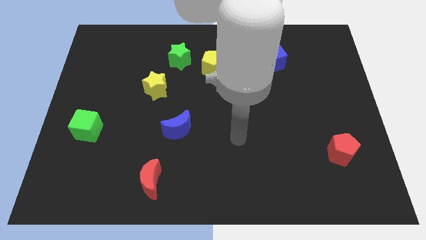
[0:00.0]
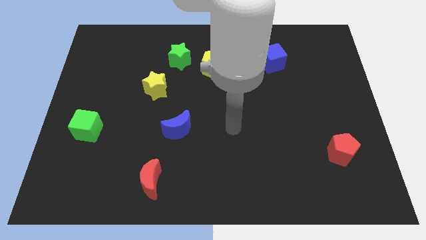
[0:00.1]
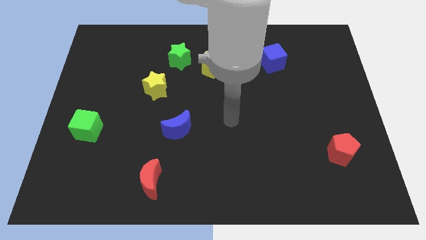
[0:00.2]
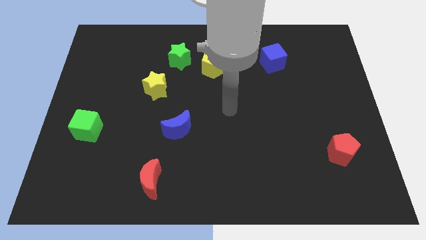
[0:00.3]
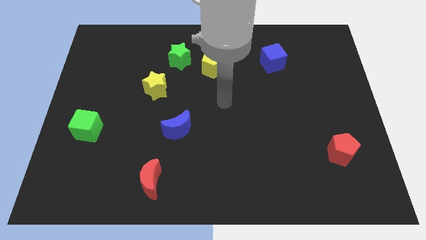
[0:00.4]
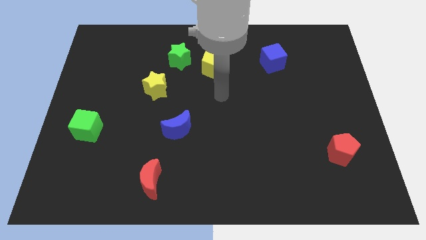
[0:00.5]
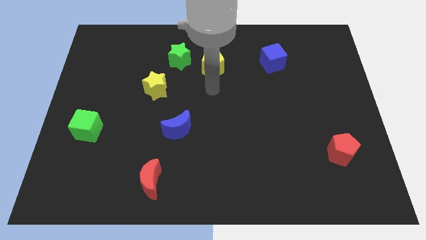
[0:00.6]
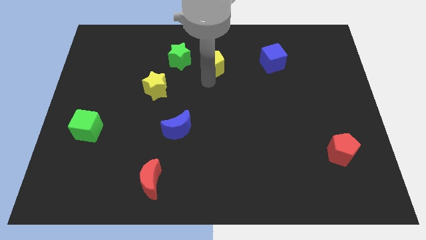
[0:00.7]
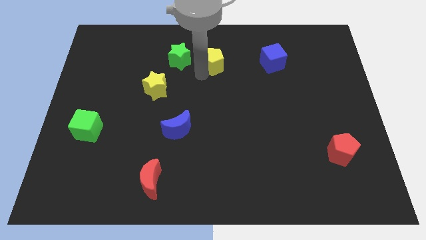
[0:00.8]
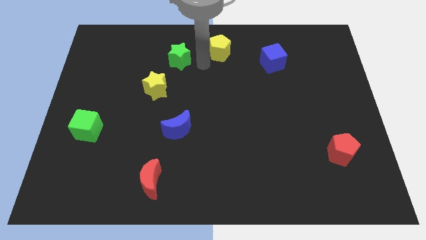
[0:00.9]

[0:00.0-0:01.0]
separate the green star from the yellow pentagon

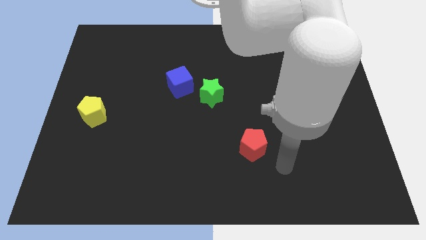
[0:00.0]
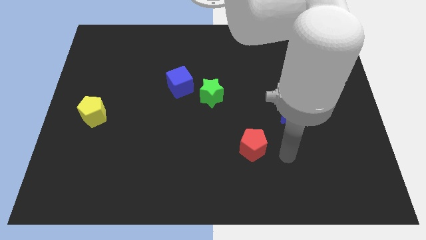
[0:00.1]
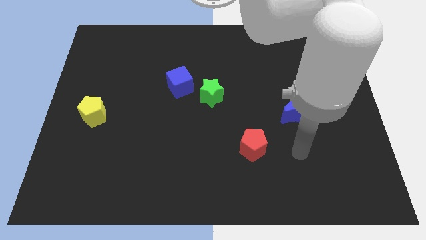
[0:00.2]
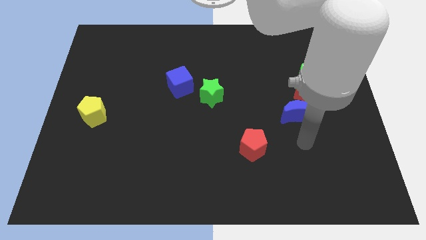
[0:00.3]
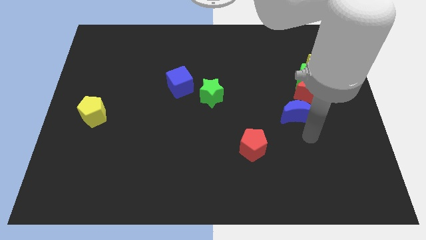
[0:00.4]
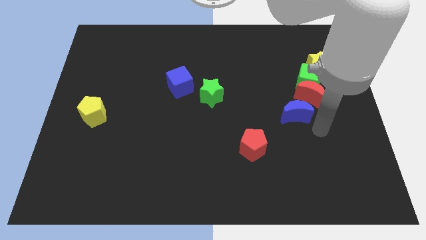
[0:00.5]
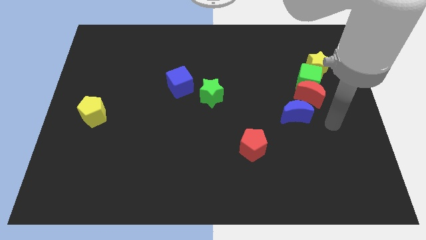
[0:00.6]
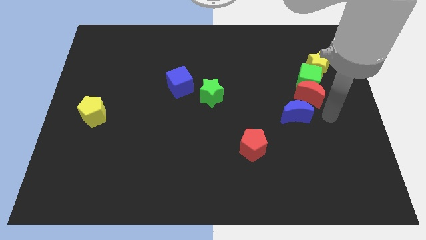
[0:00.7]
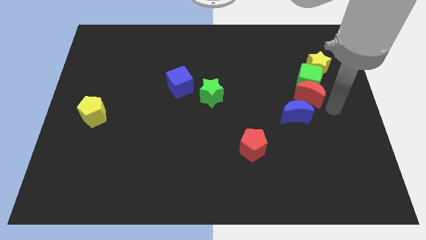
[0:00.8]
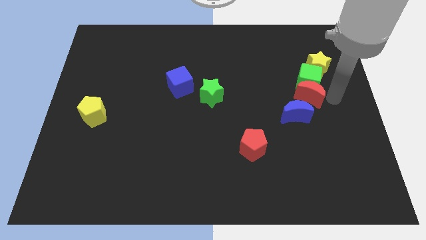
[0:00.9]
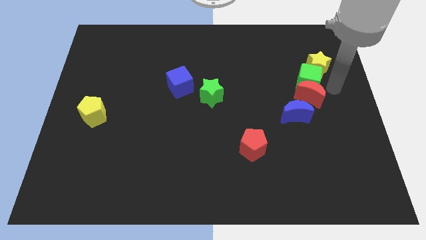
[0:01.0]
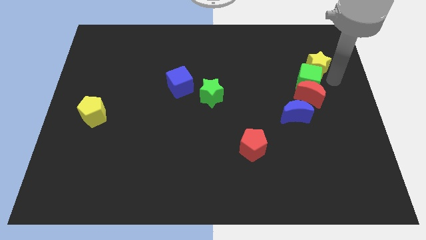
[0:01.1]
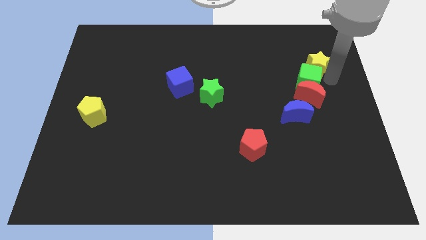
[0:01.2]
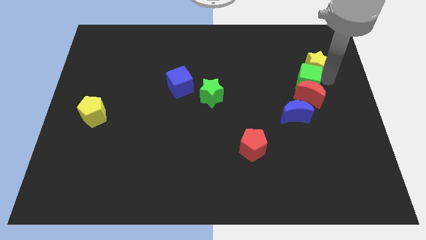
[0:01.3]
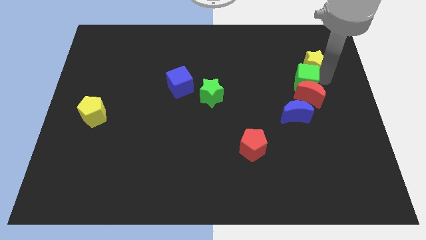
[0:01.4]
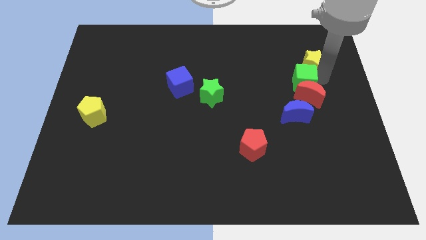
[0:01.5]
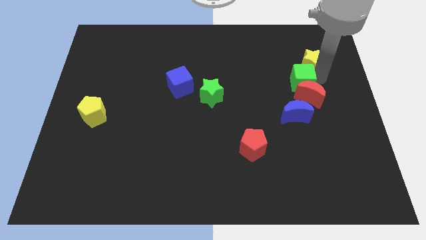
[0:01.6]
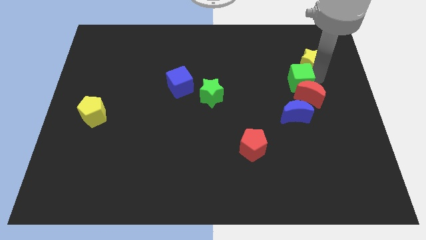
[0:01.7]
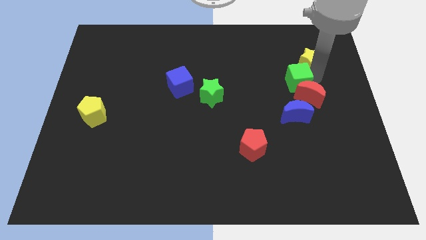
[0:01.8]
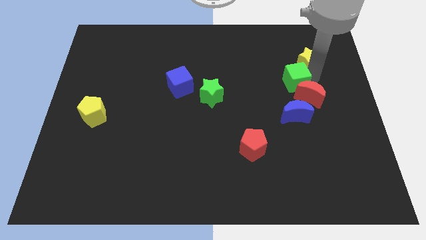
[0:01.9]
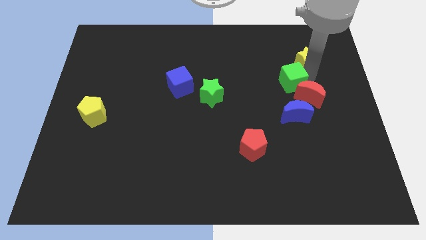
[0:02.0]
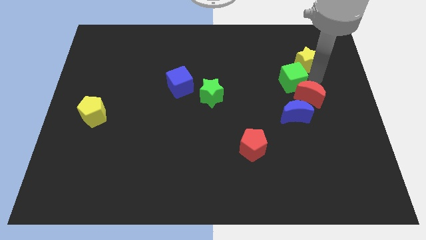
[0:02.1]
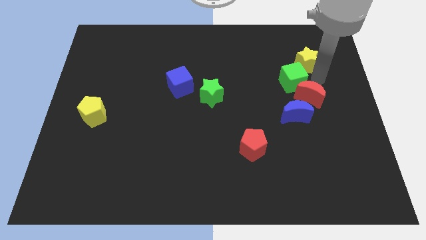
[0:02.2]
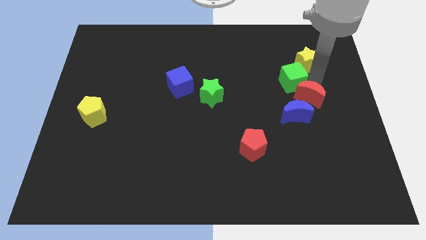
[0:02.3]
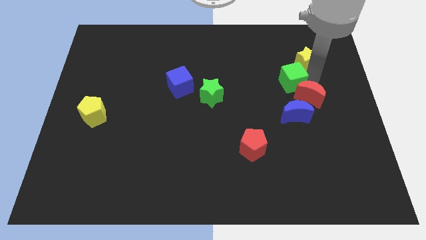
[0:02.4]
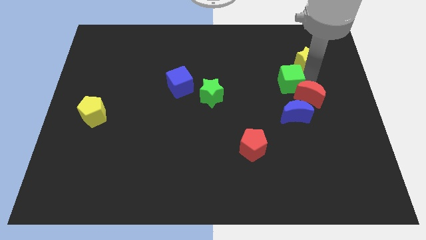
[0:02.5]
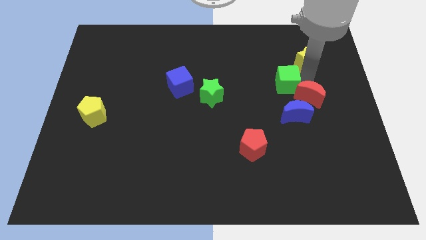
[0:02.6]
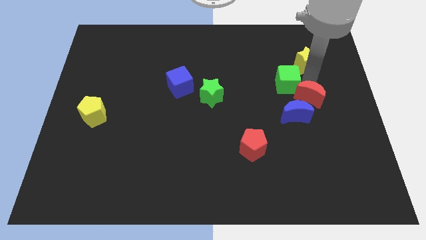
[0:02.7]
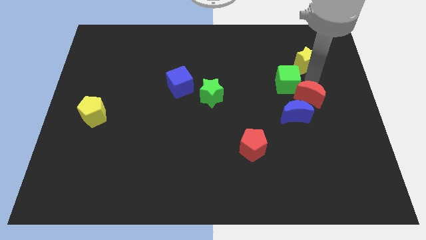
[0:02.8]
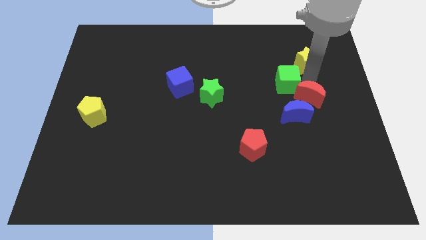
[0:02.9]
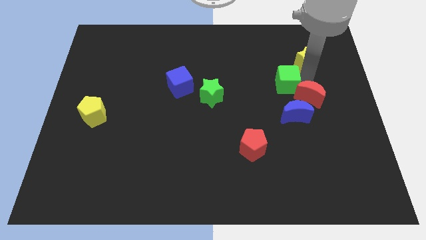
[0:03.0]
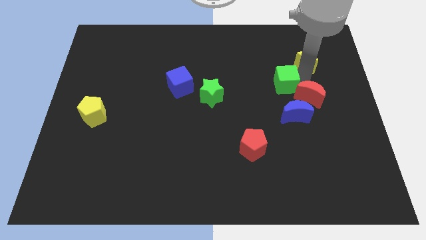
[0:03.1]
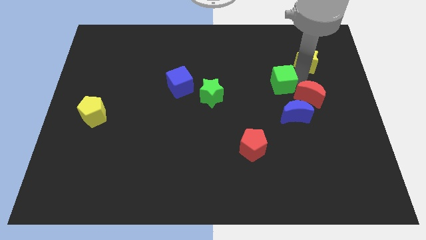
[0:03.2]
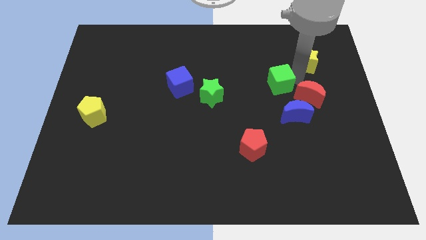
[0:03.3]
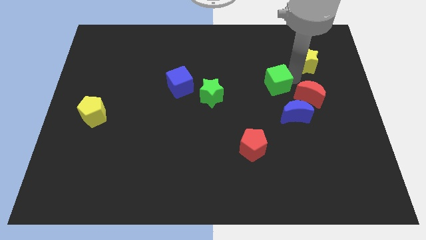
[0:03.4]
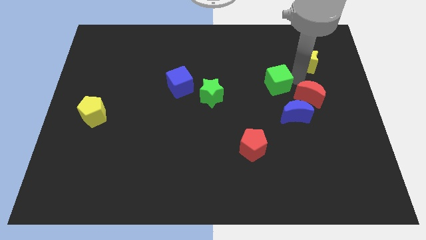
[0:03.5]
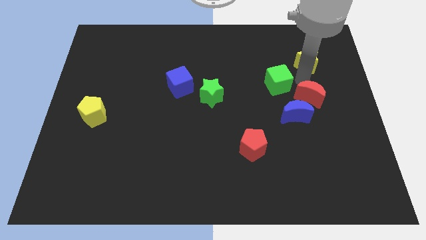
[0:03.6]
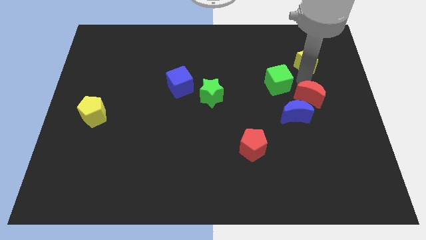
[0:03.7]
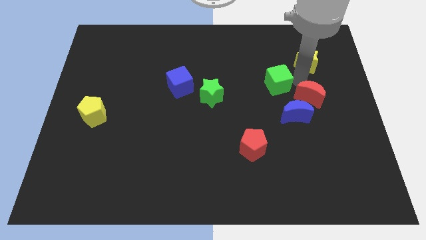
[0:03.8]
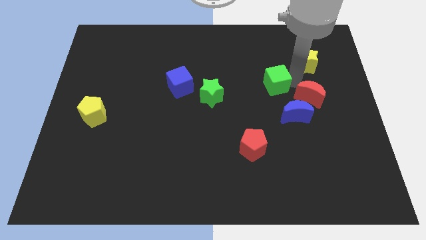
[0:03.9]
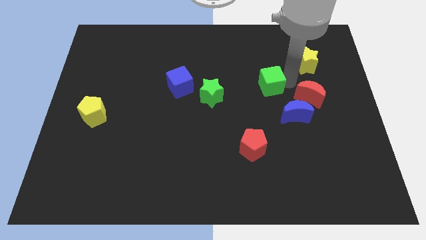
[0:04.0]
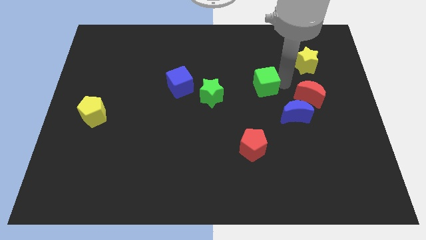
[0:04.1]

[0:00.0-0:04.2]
pull the green cube apart from the red moon and yellow star

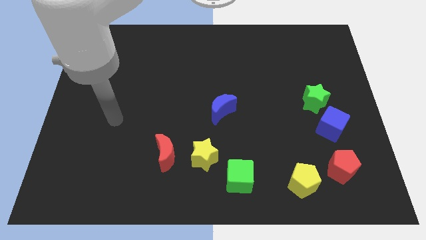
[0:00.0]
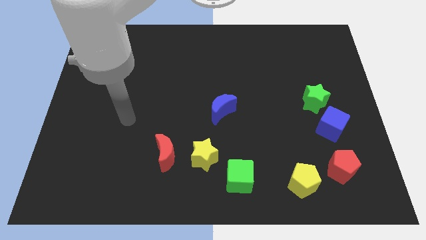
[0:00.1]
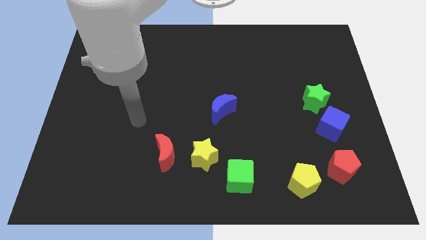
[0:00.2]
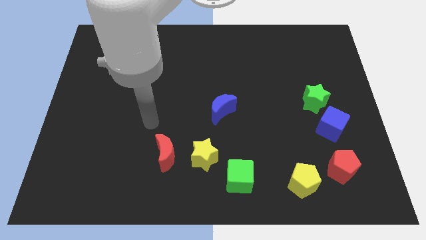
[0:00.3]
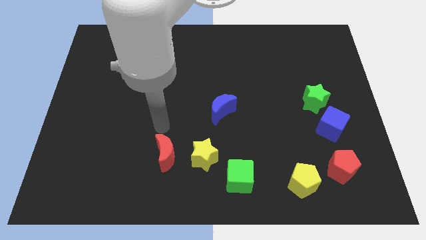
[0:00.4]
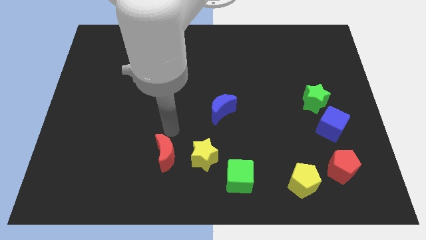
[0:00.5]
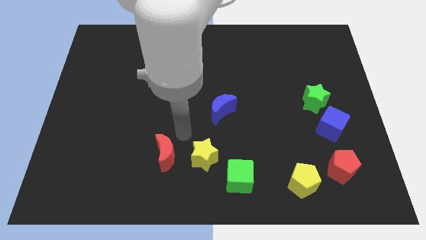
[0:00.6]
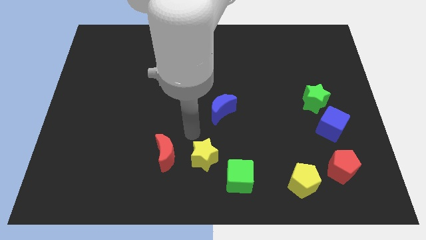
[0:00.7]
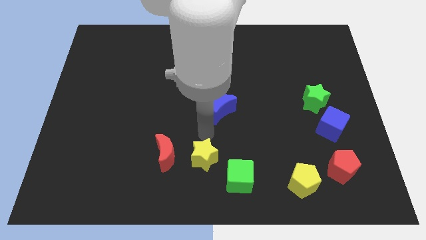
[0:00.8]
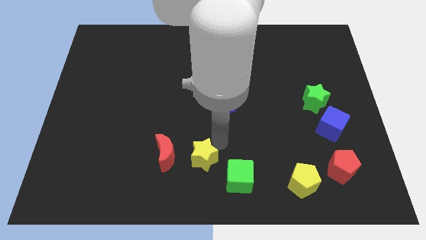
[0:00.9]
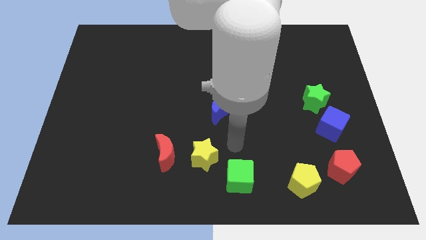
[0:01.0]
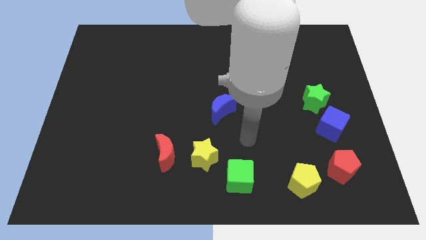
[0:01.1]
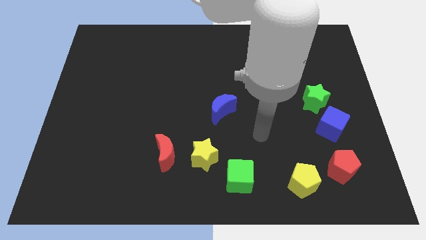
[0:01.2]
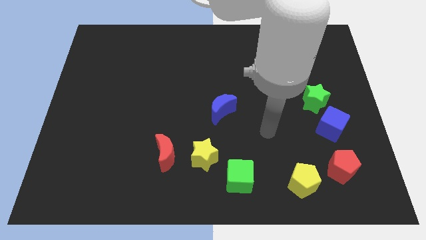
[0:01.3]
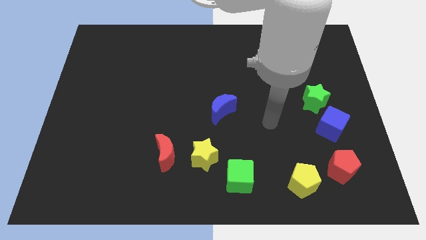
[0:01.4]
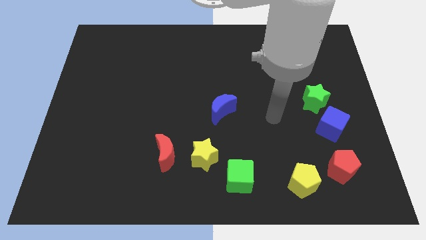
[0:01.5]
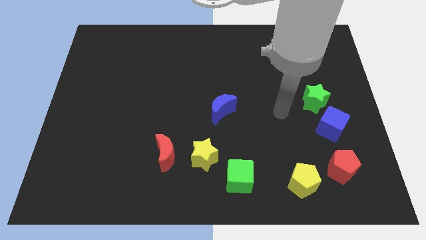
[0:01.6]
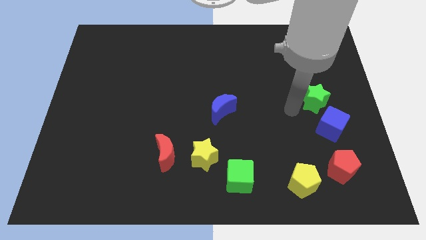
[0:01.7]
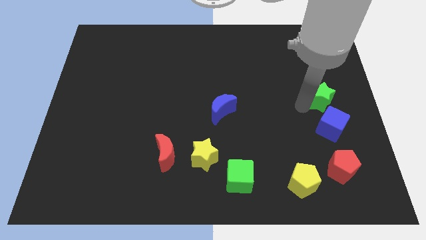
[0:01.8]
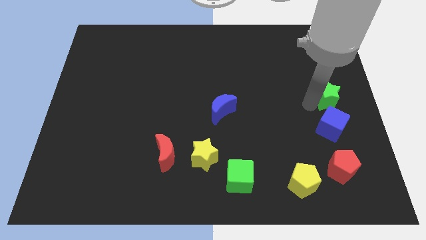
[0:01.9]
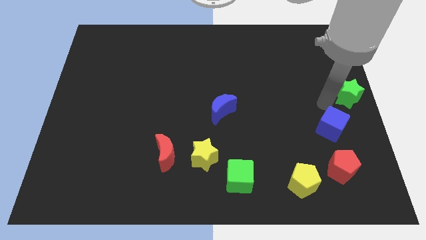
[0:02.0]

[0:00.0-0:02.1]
pull the blue cube apart from the green star

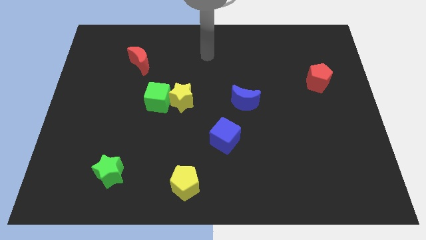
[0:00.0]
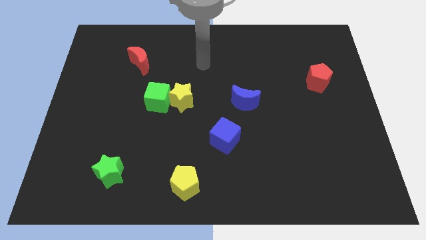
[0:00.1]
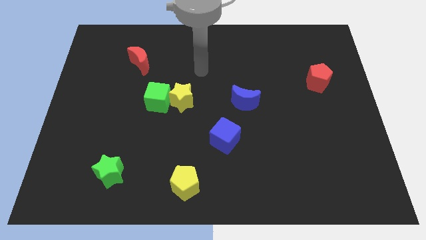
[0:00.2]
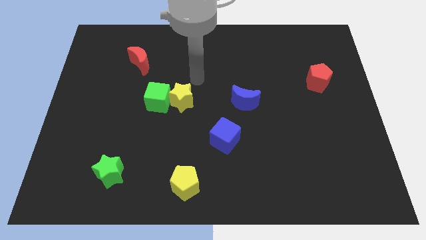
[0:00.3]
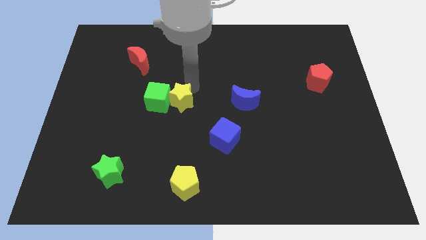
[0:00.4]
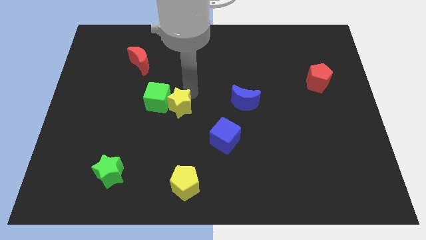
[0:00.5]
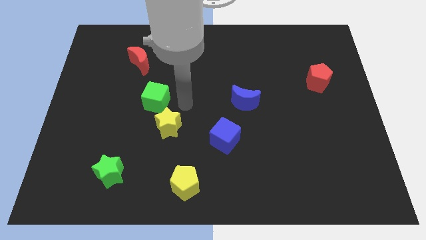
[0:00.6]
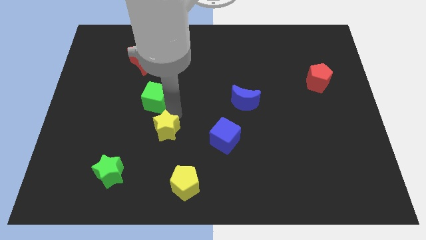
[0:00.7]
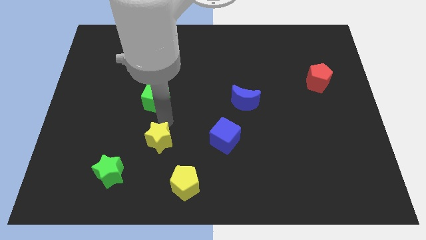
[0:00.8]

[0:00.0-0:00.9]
separate the green cube from the yellow star

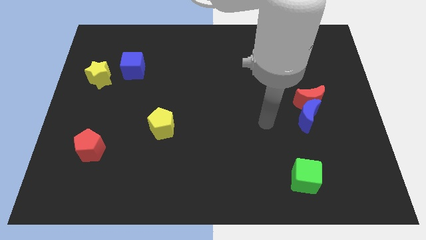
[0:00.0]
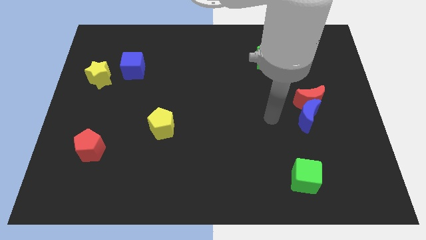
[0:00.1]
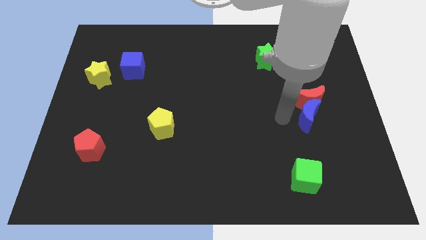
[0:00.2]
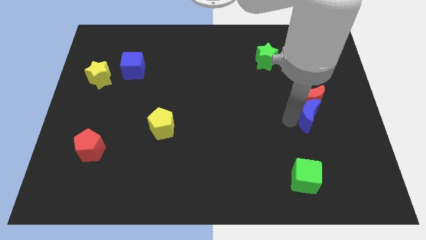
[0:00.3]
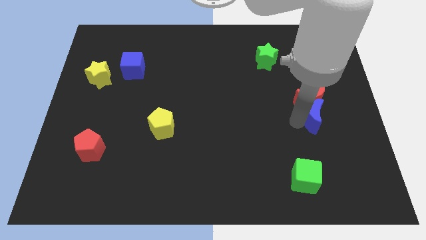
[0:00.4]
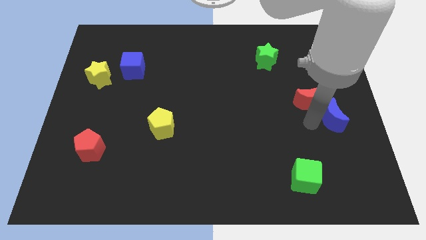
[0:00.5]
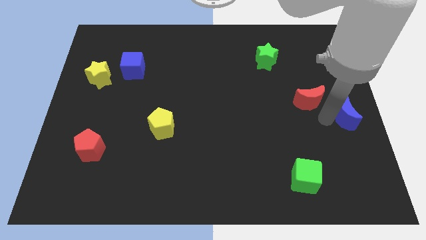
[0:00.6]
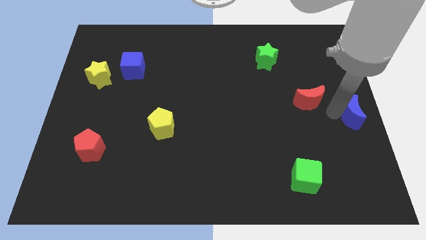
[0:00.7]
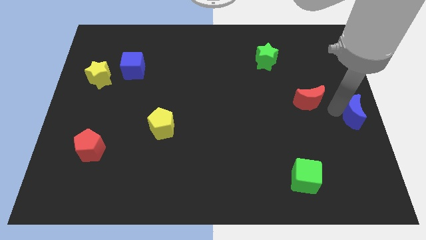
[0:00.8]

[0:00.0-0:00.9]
pull the red moon apart from the blue moon

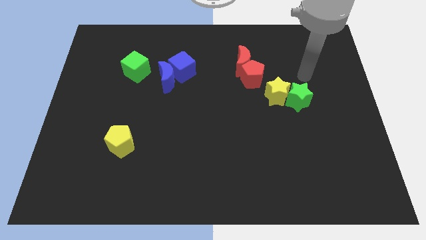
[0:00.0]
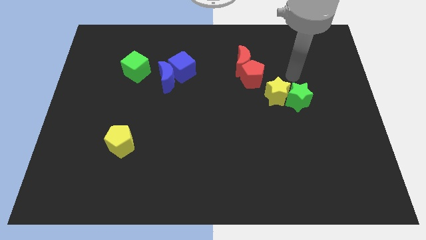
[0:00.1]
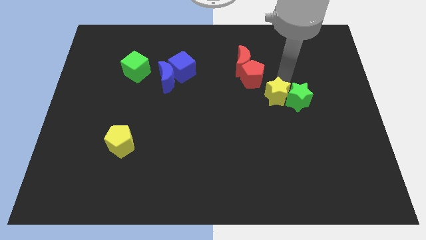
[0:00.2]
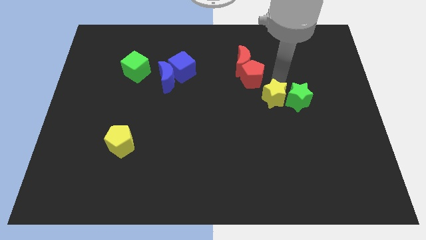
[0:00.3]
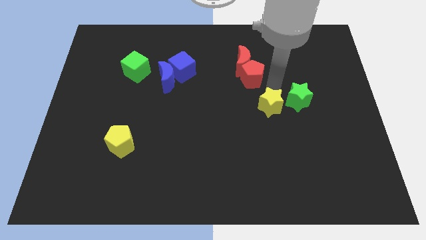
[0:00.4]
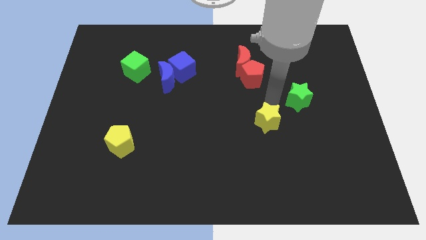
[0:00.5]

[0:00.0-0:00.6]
move the green star away from the yellow star
